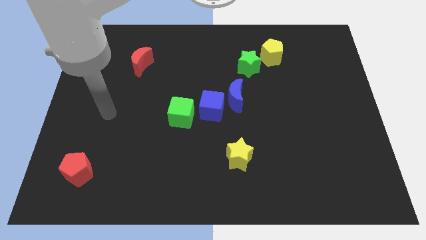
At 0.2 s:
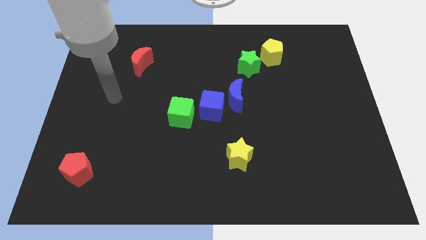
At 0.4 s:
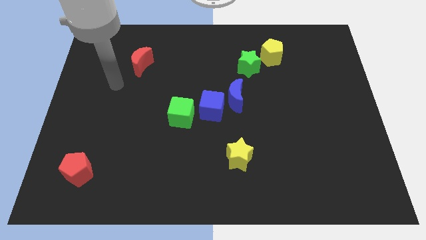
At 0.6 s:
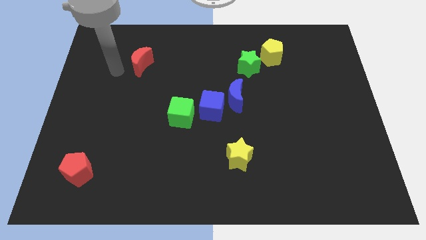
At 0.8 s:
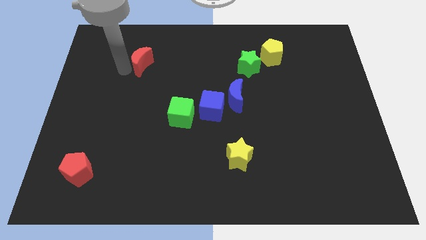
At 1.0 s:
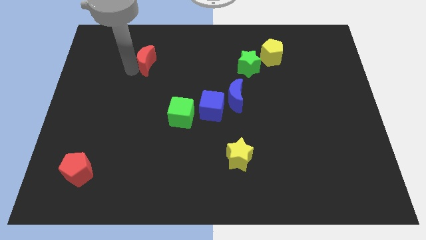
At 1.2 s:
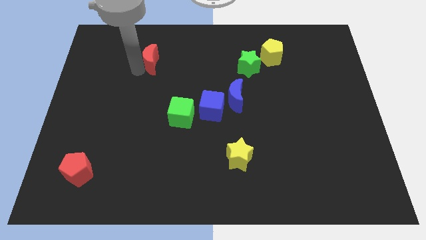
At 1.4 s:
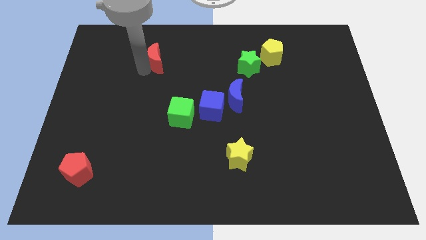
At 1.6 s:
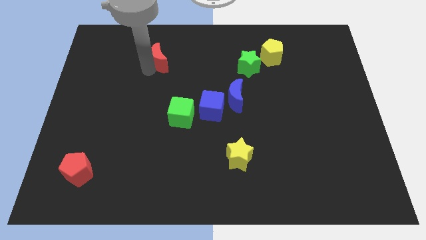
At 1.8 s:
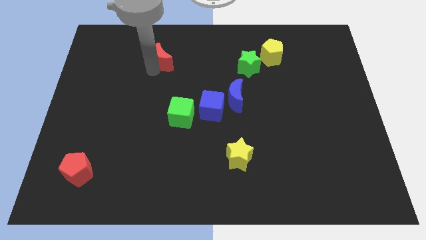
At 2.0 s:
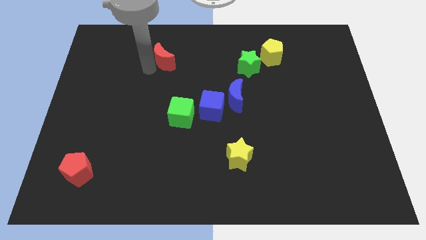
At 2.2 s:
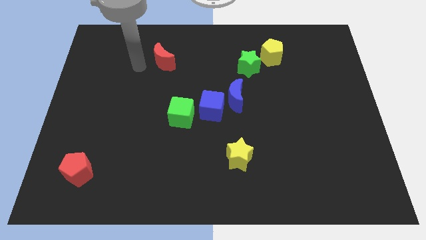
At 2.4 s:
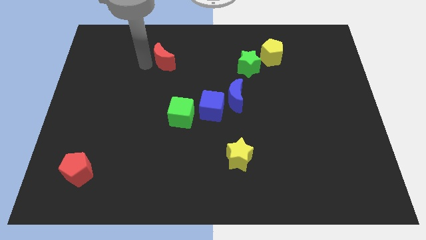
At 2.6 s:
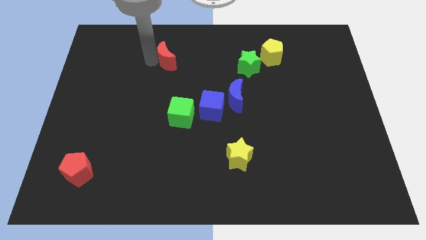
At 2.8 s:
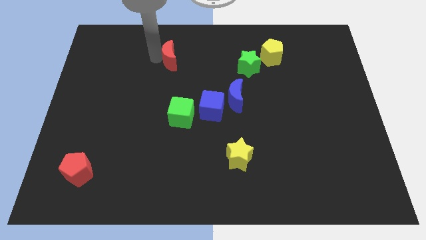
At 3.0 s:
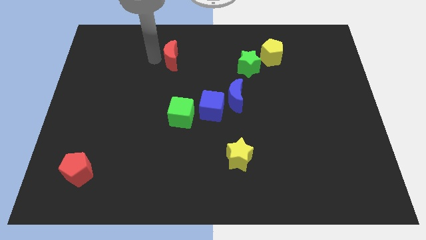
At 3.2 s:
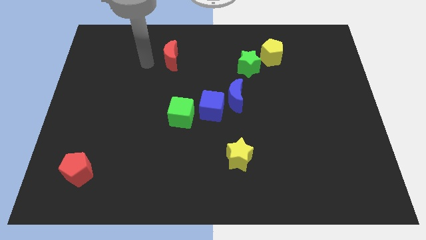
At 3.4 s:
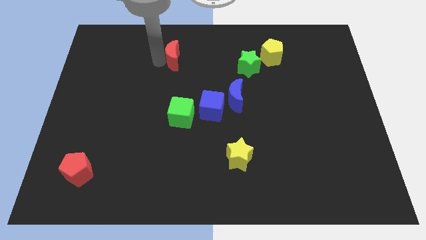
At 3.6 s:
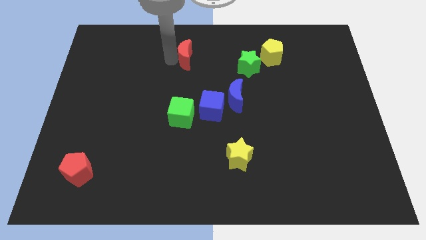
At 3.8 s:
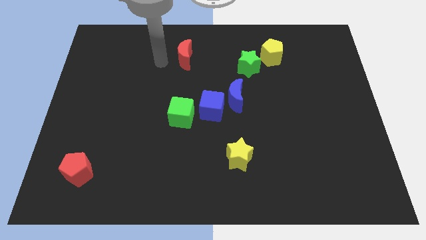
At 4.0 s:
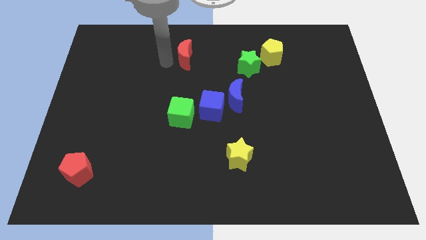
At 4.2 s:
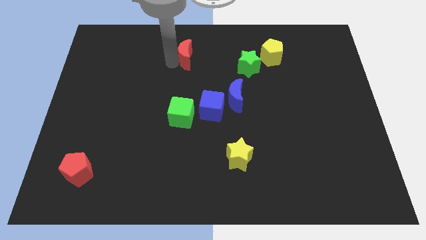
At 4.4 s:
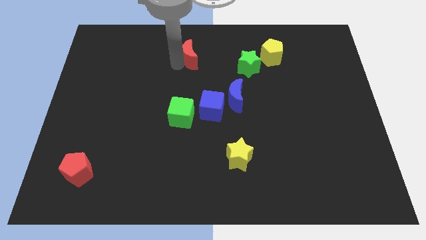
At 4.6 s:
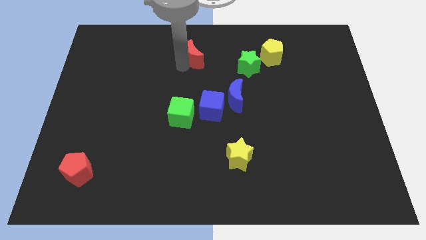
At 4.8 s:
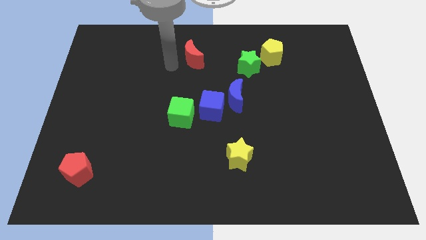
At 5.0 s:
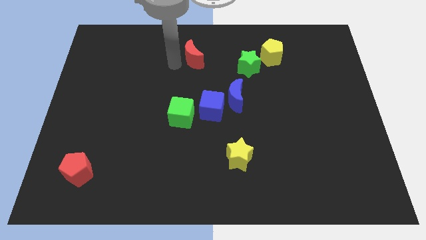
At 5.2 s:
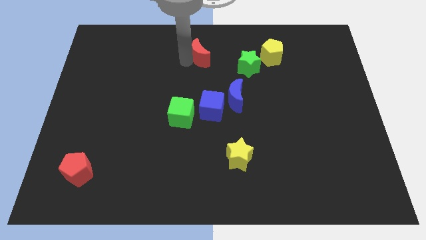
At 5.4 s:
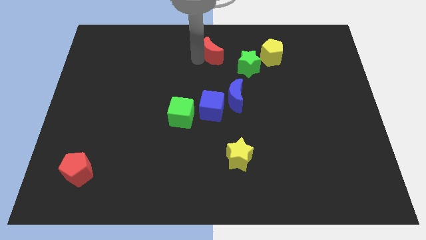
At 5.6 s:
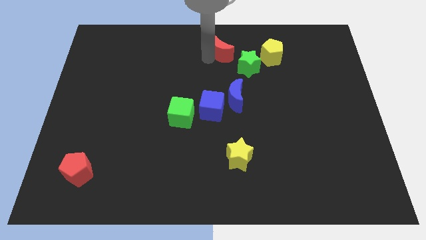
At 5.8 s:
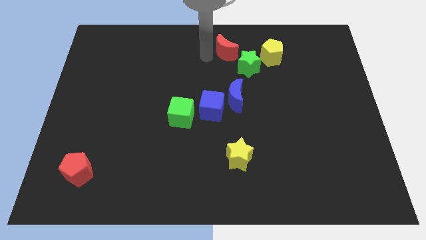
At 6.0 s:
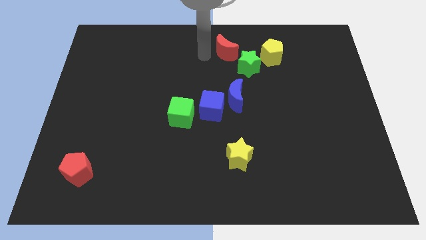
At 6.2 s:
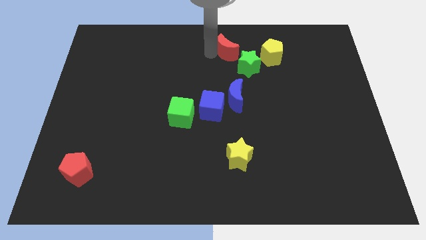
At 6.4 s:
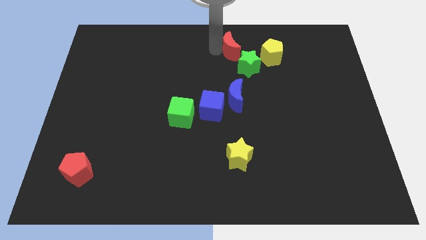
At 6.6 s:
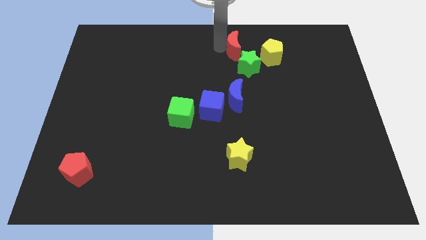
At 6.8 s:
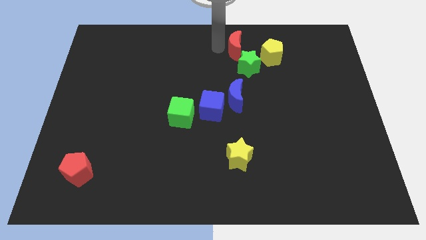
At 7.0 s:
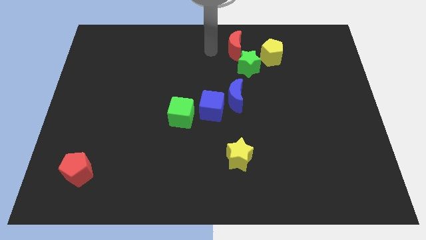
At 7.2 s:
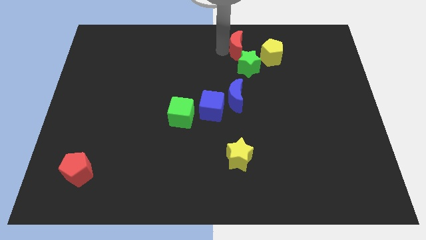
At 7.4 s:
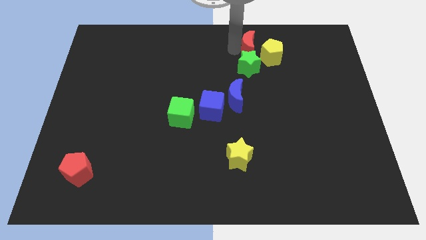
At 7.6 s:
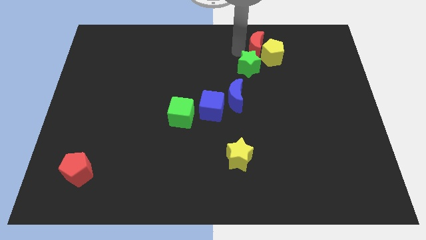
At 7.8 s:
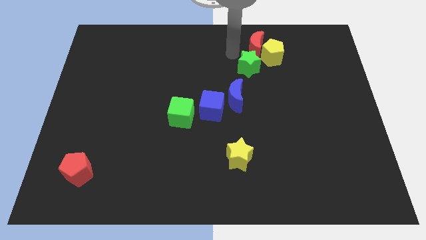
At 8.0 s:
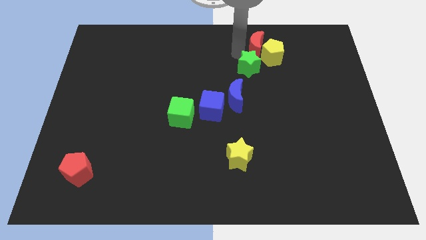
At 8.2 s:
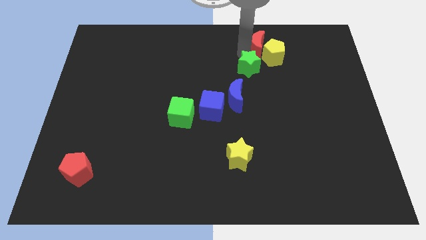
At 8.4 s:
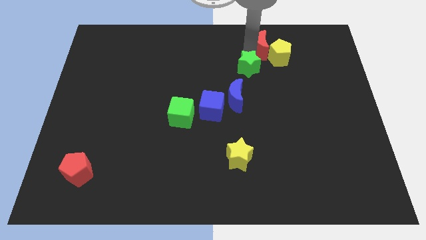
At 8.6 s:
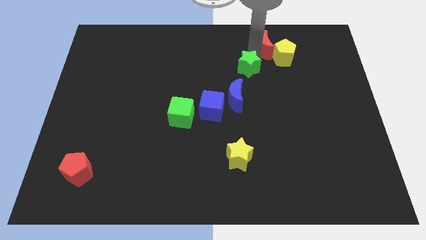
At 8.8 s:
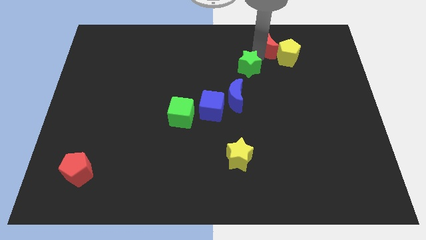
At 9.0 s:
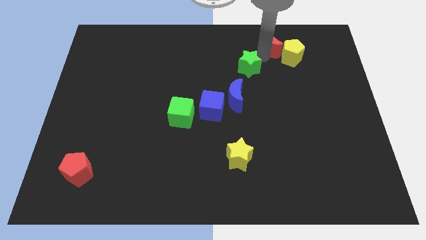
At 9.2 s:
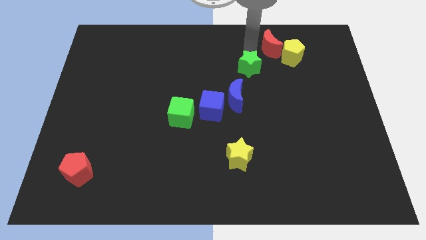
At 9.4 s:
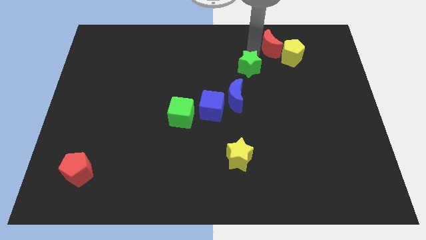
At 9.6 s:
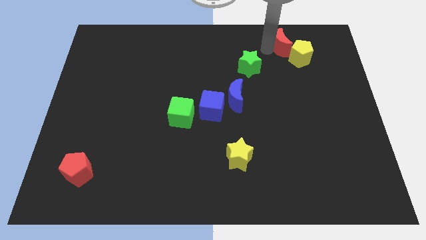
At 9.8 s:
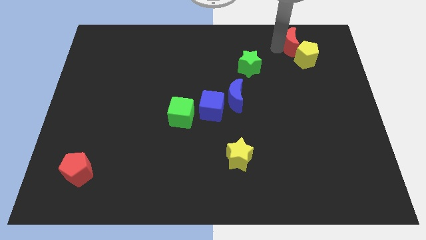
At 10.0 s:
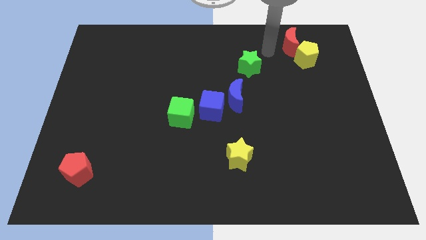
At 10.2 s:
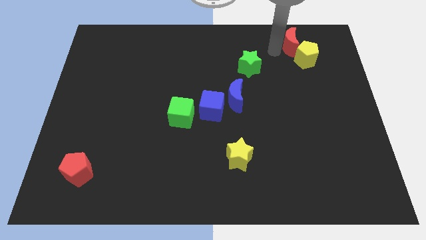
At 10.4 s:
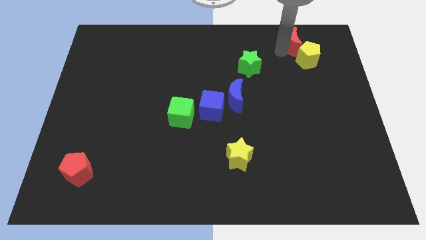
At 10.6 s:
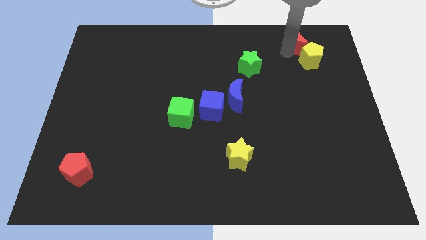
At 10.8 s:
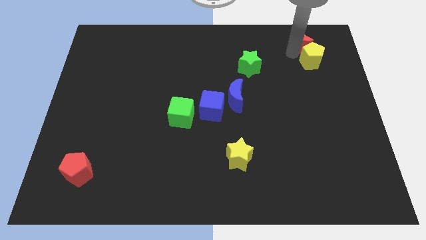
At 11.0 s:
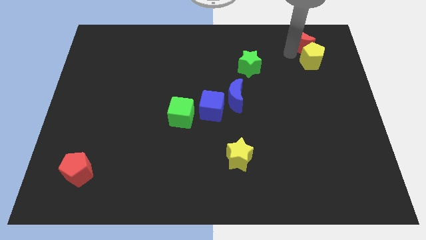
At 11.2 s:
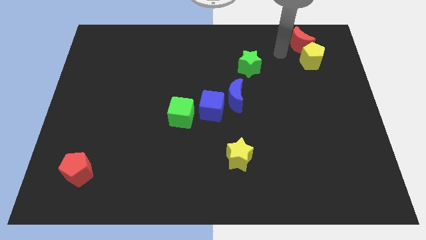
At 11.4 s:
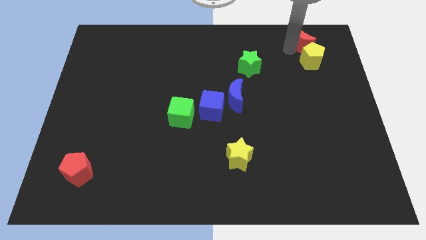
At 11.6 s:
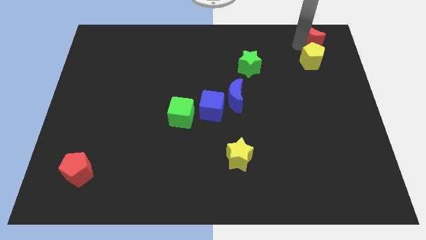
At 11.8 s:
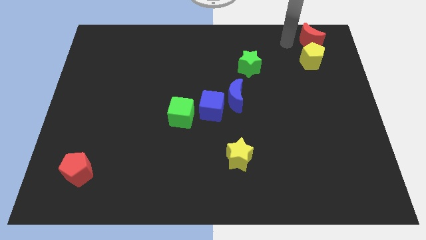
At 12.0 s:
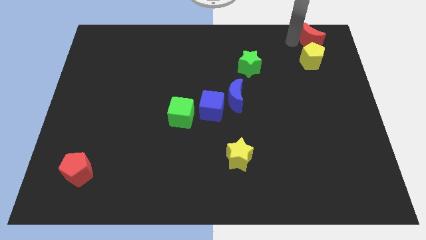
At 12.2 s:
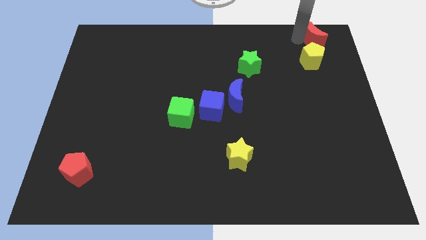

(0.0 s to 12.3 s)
push the red moon to the top right corner

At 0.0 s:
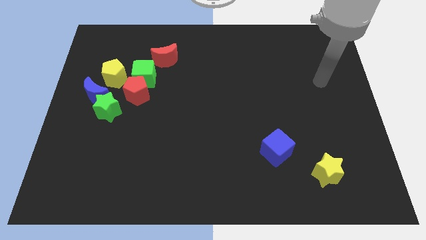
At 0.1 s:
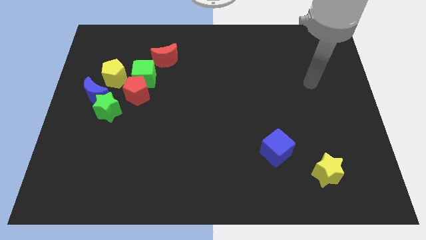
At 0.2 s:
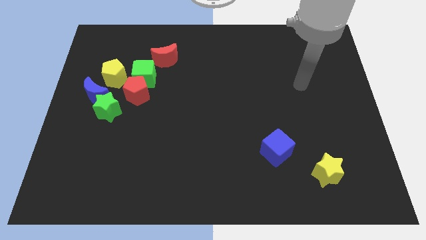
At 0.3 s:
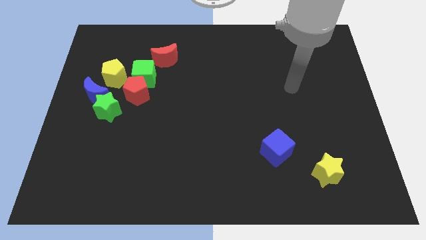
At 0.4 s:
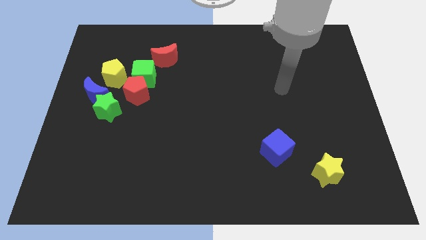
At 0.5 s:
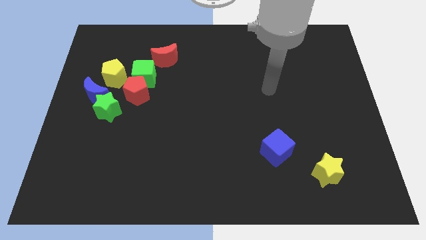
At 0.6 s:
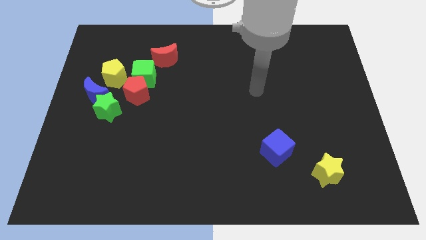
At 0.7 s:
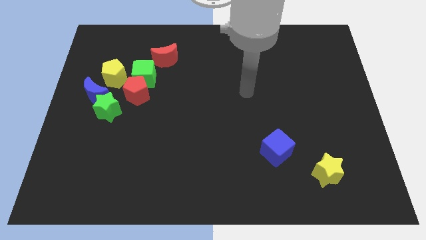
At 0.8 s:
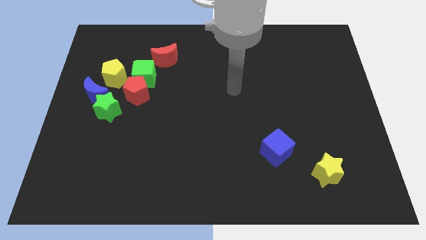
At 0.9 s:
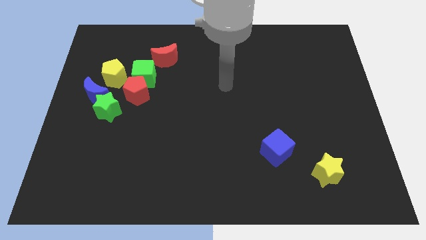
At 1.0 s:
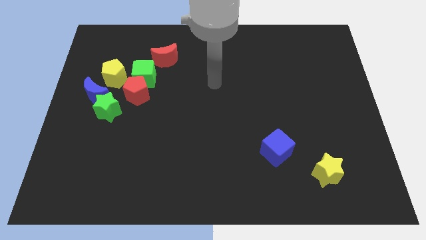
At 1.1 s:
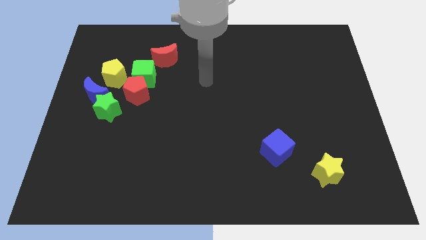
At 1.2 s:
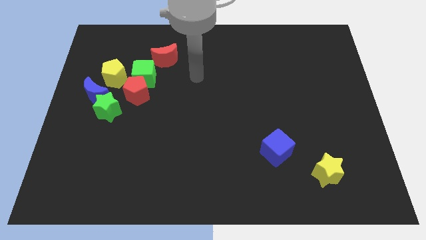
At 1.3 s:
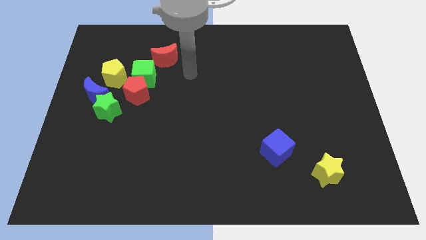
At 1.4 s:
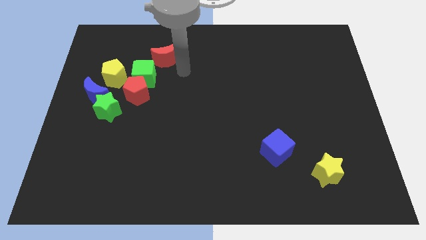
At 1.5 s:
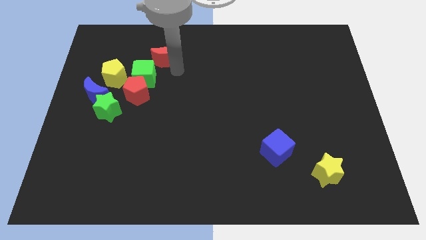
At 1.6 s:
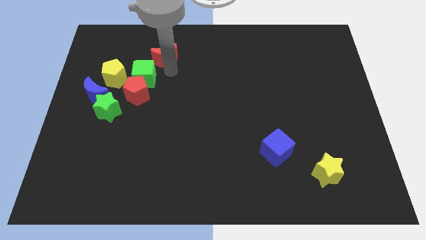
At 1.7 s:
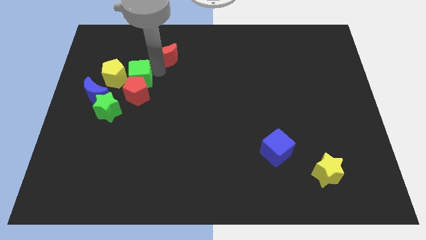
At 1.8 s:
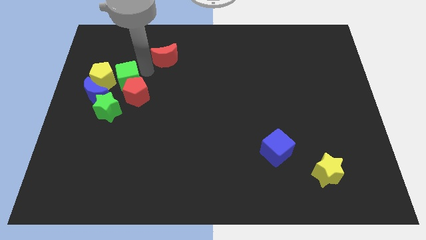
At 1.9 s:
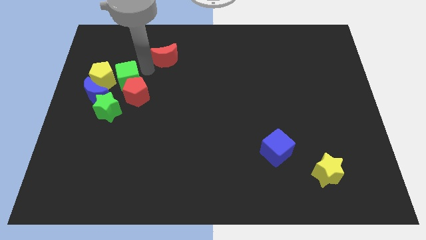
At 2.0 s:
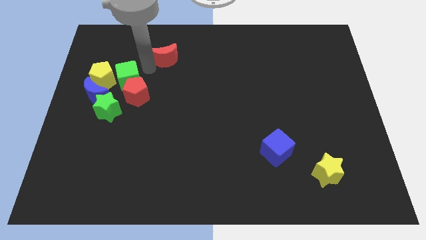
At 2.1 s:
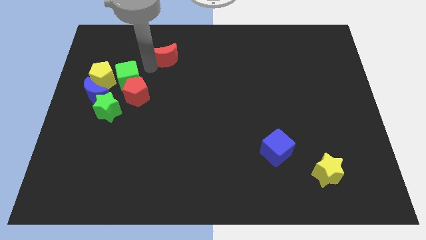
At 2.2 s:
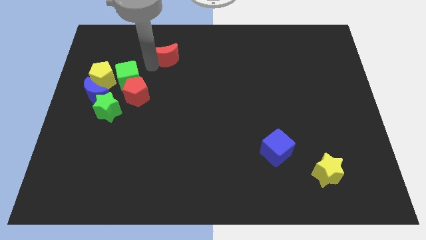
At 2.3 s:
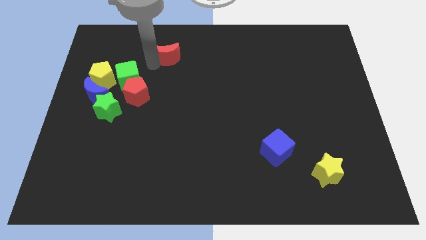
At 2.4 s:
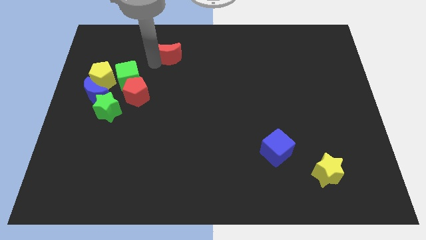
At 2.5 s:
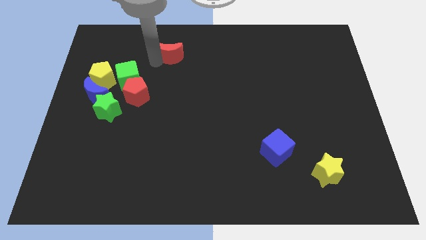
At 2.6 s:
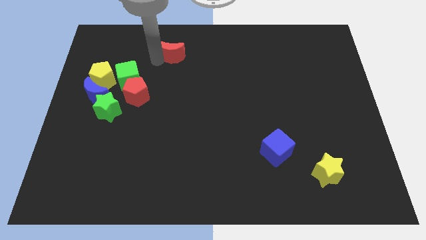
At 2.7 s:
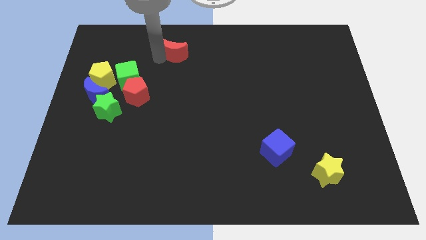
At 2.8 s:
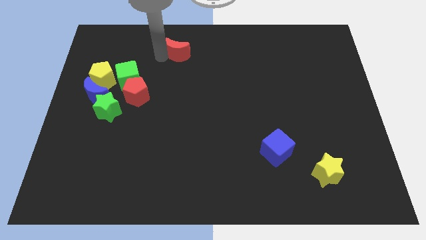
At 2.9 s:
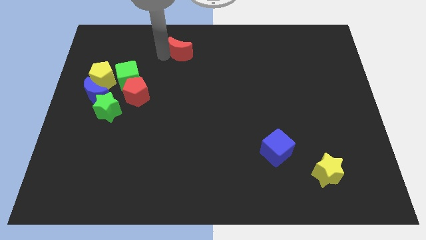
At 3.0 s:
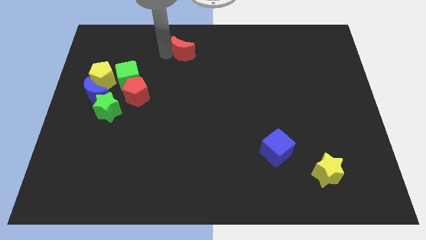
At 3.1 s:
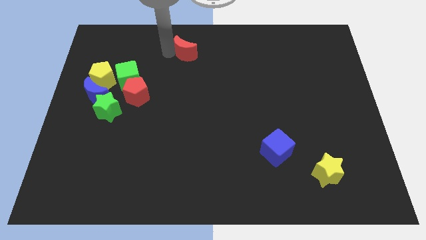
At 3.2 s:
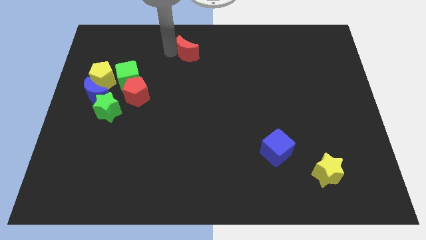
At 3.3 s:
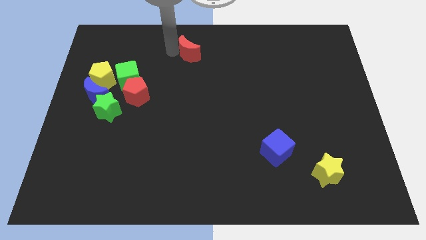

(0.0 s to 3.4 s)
move the red moon to the towards your base
